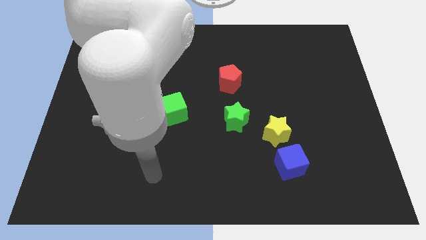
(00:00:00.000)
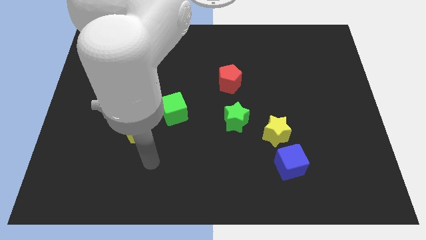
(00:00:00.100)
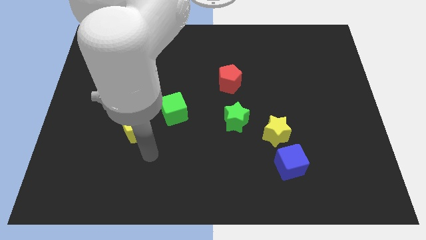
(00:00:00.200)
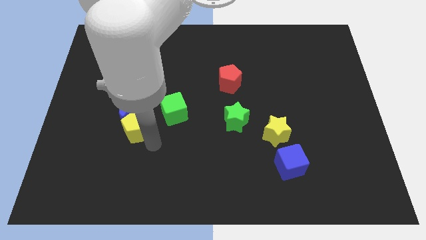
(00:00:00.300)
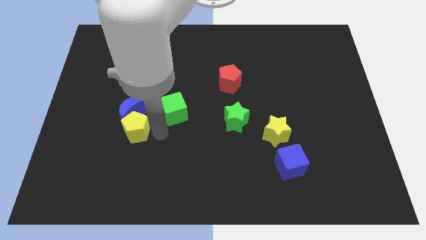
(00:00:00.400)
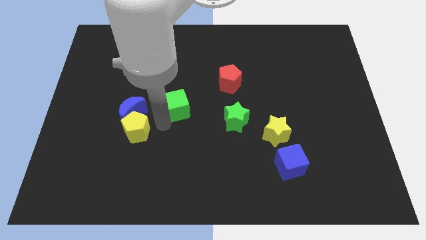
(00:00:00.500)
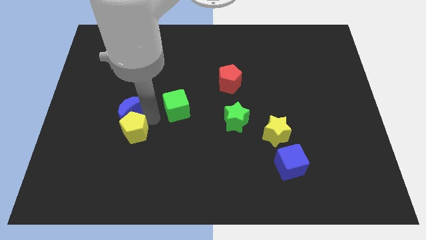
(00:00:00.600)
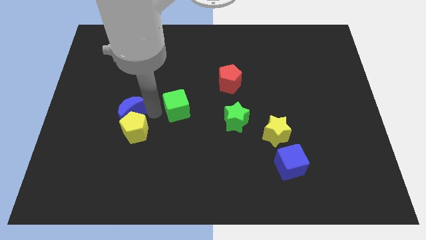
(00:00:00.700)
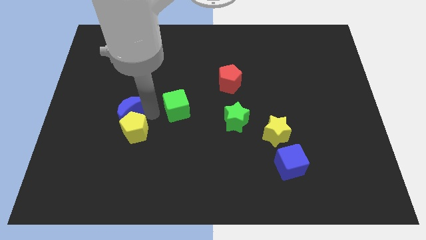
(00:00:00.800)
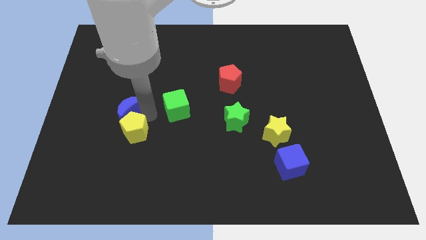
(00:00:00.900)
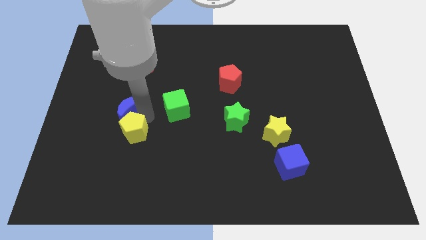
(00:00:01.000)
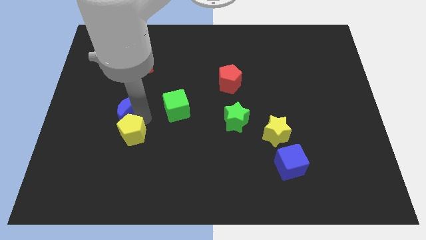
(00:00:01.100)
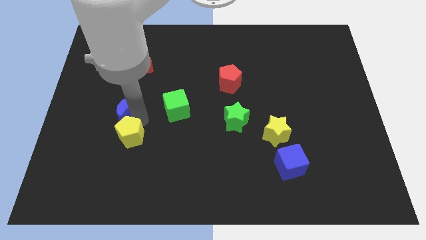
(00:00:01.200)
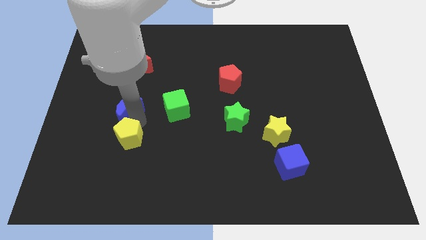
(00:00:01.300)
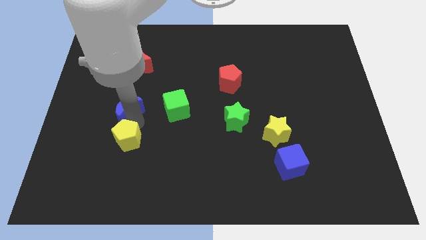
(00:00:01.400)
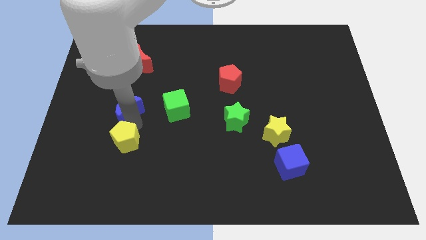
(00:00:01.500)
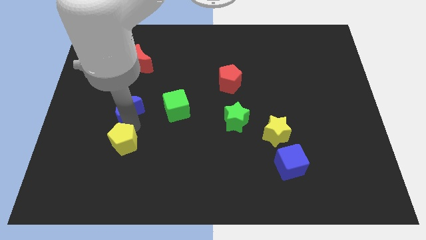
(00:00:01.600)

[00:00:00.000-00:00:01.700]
separate the yellow pentagon from the blue moon and green cube

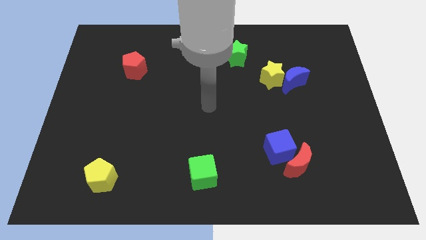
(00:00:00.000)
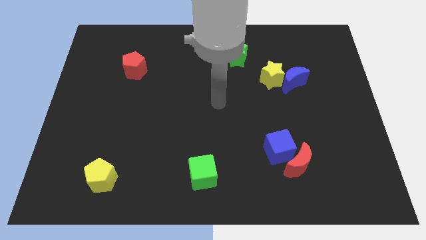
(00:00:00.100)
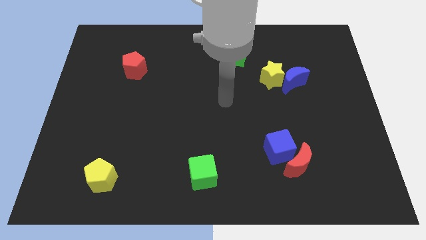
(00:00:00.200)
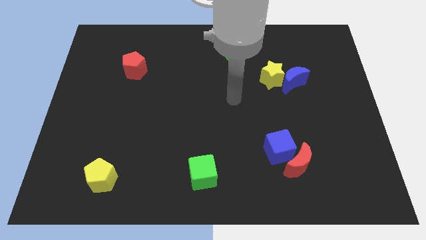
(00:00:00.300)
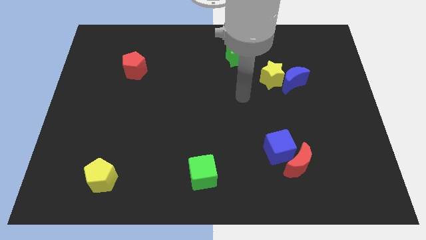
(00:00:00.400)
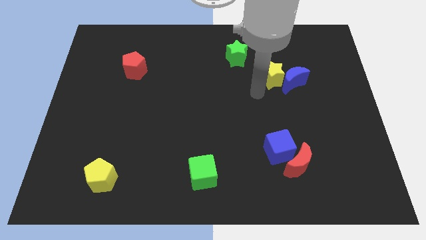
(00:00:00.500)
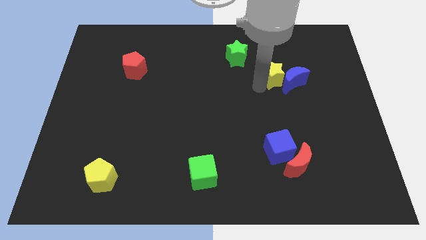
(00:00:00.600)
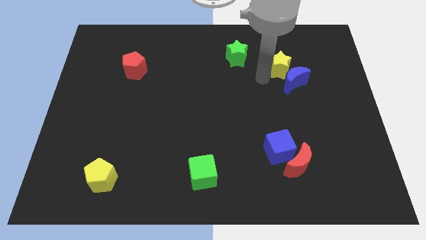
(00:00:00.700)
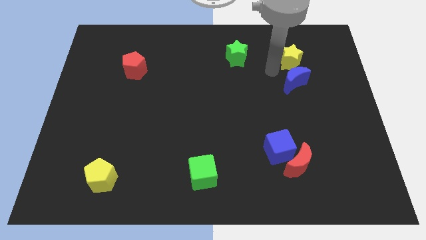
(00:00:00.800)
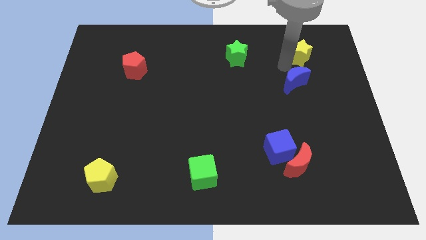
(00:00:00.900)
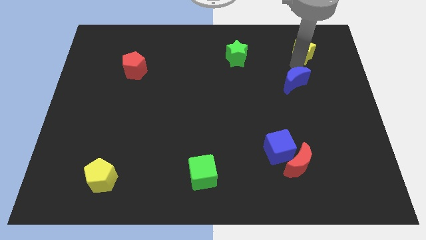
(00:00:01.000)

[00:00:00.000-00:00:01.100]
separate the blue moon from the yellow star

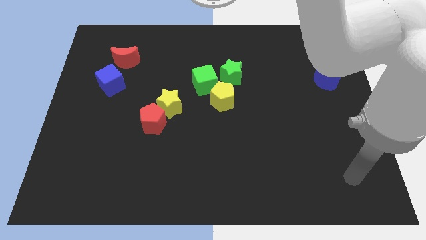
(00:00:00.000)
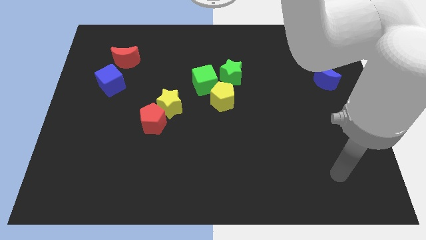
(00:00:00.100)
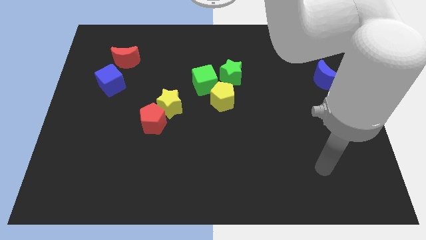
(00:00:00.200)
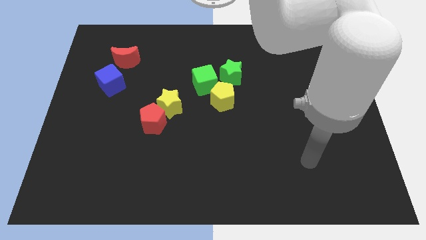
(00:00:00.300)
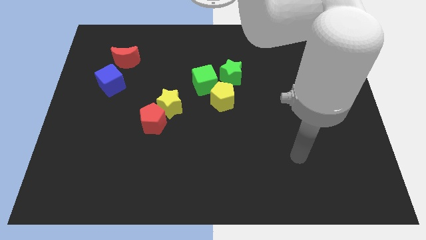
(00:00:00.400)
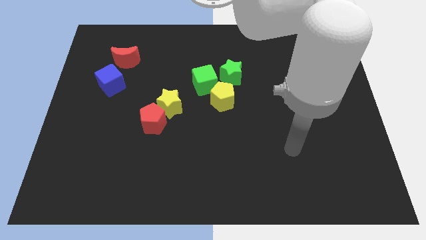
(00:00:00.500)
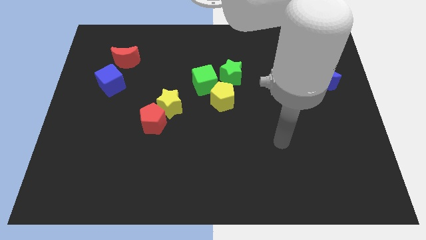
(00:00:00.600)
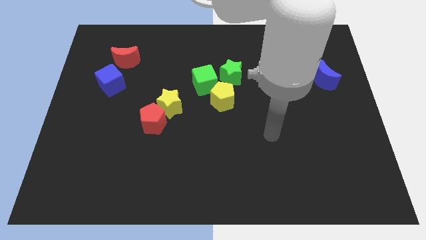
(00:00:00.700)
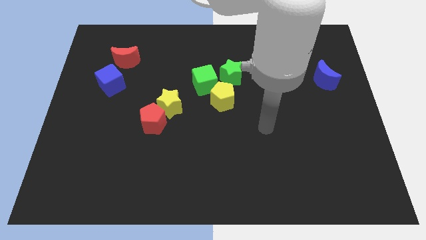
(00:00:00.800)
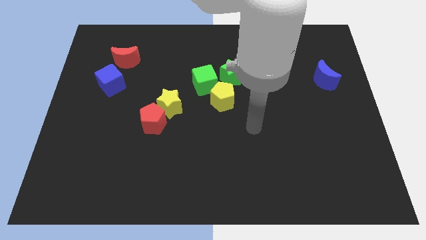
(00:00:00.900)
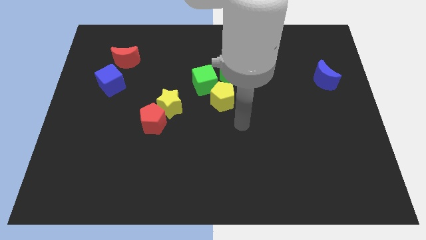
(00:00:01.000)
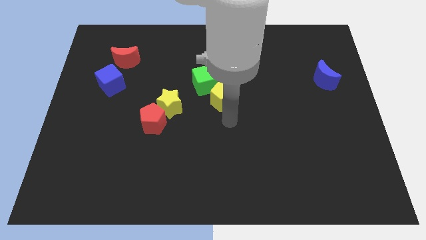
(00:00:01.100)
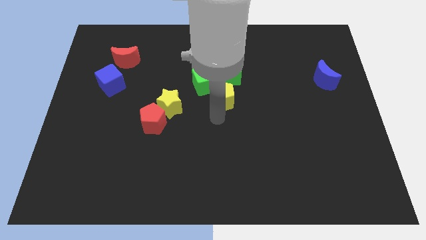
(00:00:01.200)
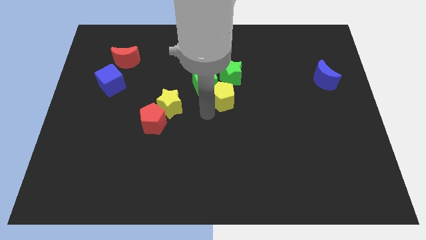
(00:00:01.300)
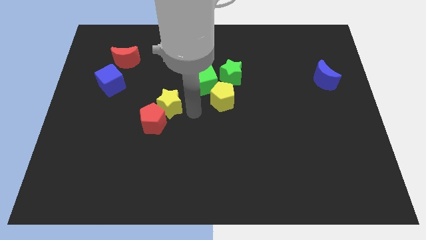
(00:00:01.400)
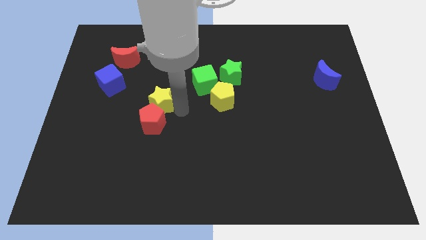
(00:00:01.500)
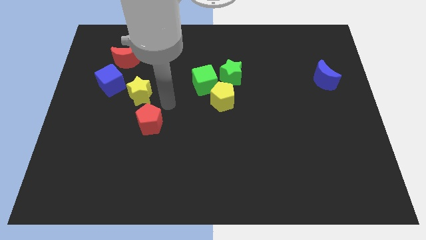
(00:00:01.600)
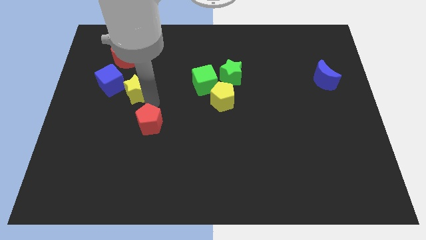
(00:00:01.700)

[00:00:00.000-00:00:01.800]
separate the red pentagon from the yellow star

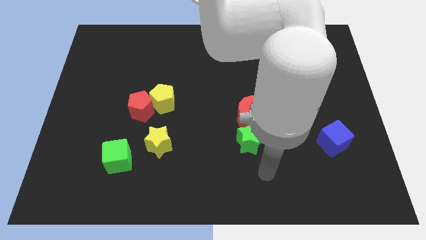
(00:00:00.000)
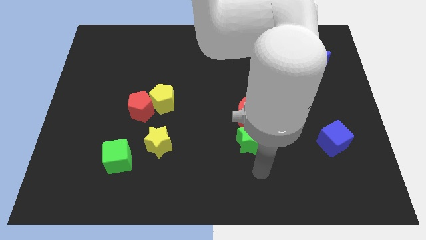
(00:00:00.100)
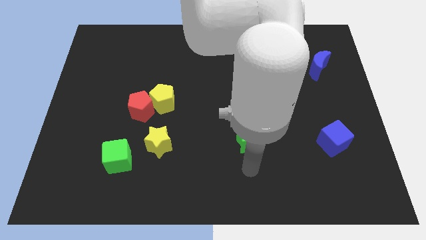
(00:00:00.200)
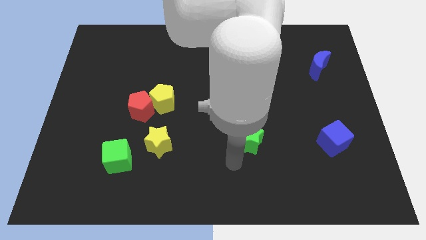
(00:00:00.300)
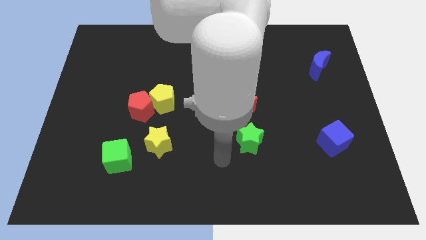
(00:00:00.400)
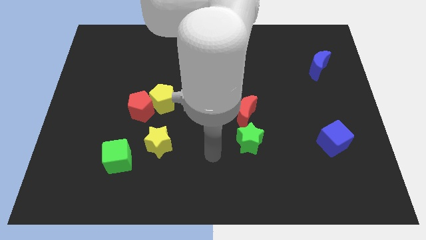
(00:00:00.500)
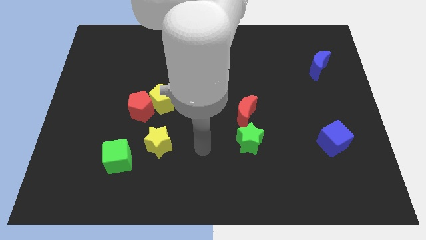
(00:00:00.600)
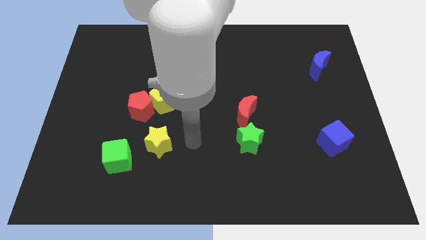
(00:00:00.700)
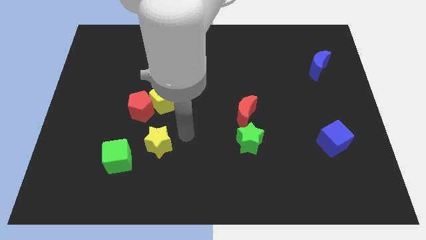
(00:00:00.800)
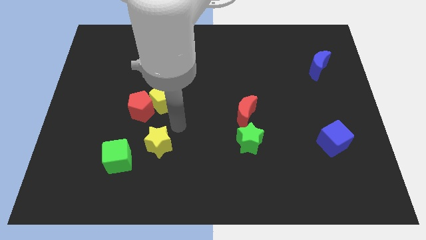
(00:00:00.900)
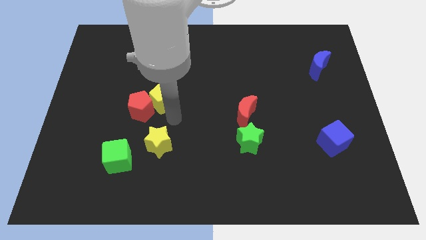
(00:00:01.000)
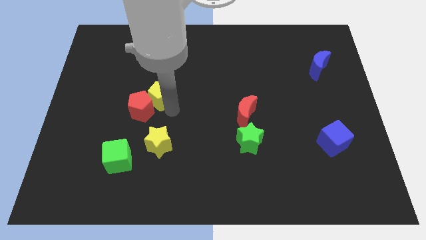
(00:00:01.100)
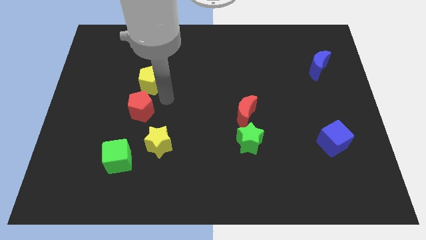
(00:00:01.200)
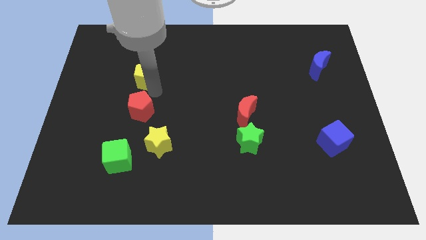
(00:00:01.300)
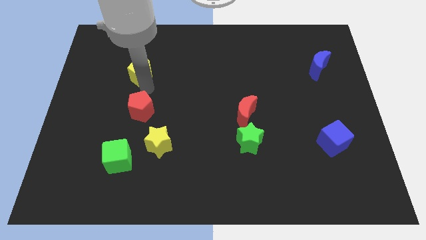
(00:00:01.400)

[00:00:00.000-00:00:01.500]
move the red pentagon away from the yellow pentagon

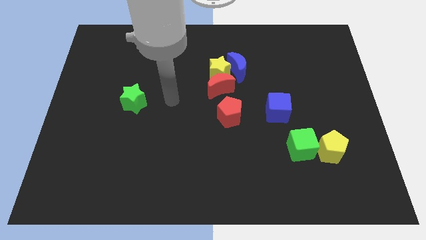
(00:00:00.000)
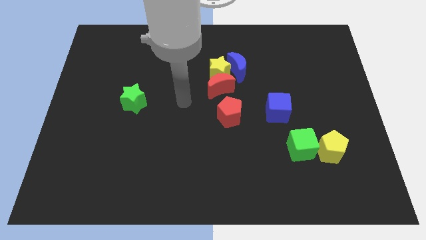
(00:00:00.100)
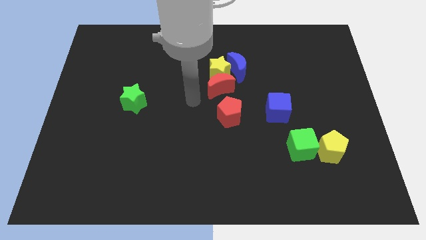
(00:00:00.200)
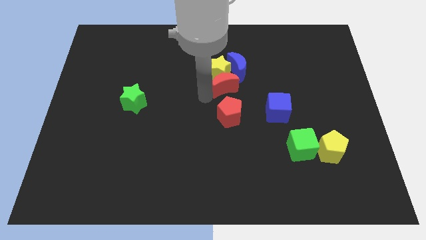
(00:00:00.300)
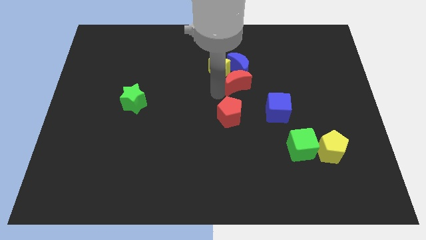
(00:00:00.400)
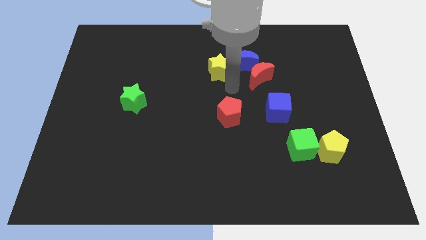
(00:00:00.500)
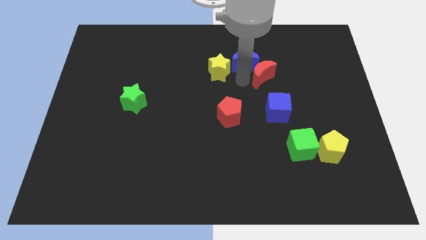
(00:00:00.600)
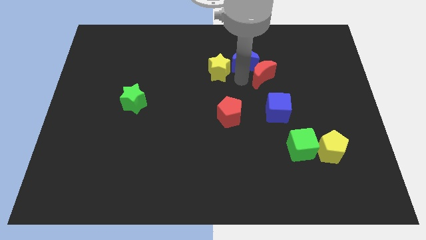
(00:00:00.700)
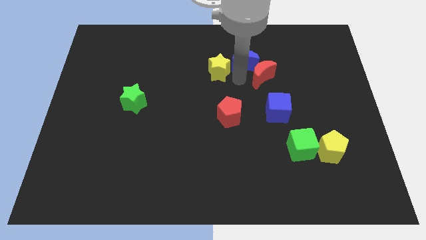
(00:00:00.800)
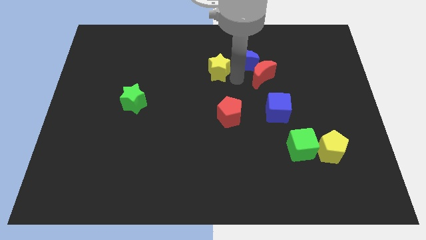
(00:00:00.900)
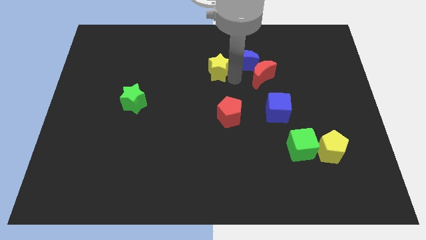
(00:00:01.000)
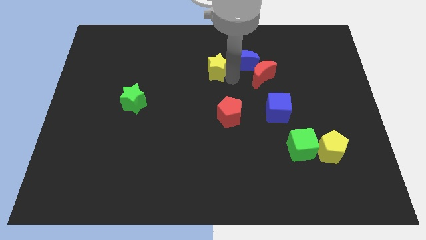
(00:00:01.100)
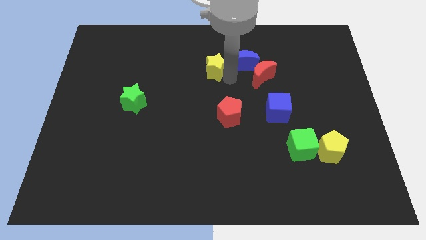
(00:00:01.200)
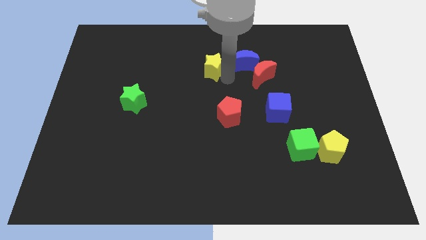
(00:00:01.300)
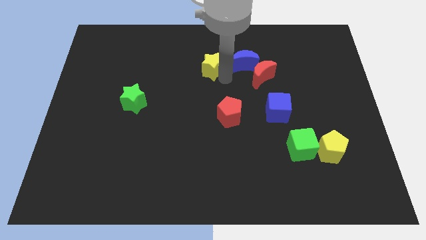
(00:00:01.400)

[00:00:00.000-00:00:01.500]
move the yellow star away from the blue moon and red moon

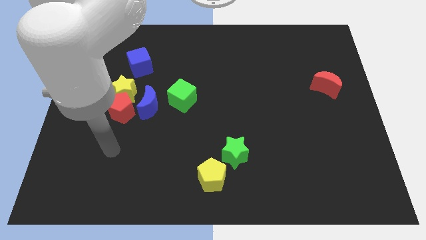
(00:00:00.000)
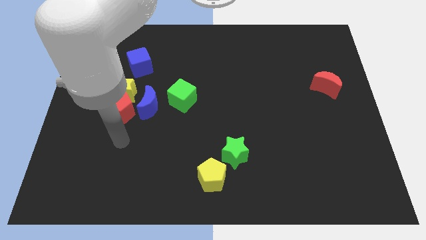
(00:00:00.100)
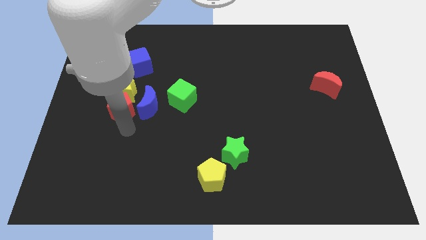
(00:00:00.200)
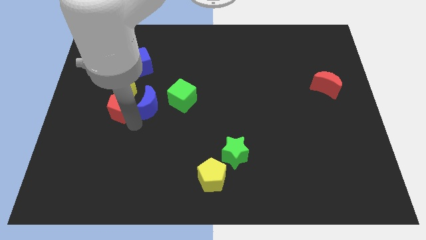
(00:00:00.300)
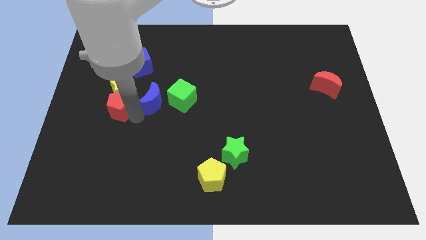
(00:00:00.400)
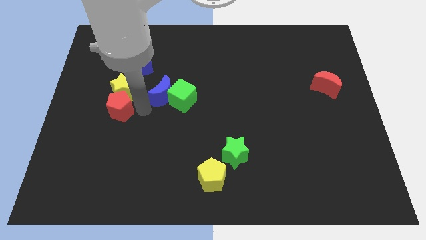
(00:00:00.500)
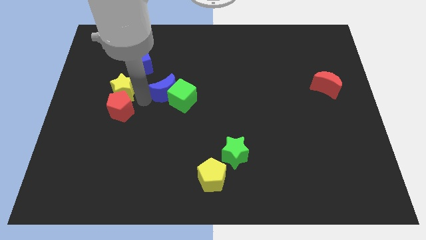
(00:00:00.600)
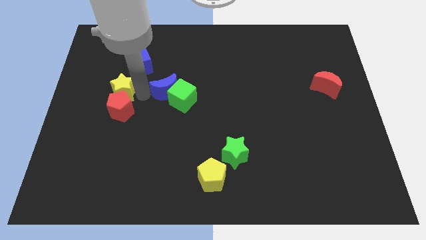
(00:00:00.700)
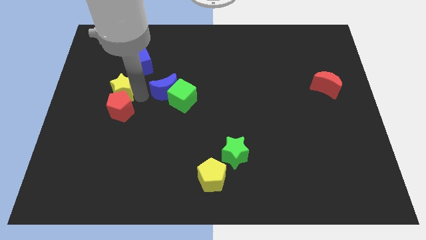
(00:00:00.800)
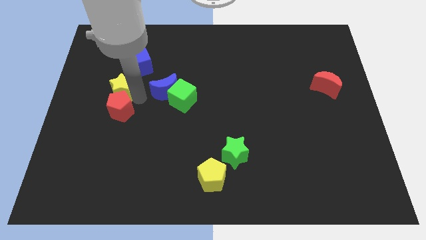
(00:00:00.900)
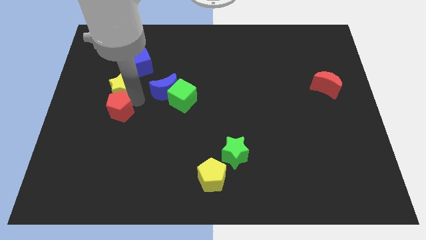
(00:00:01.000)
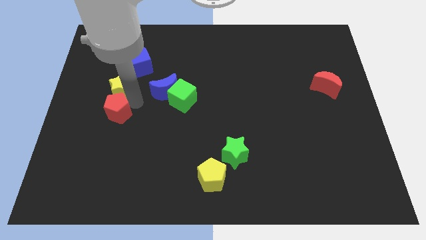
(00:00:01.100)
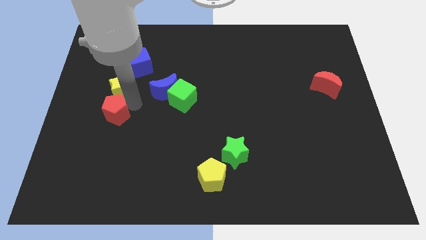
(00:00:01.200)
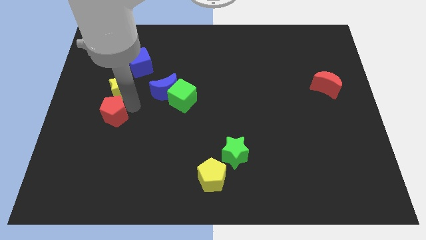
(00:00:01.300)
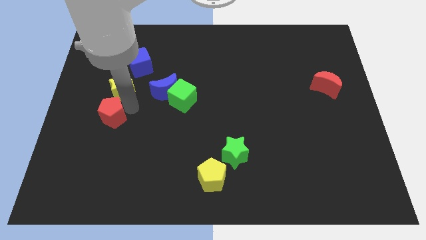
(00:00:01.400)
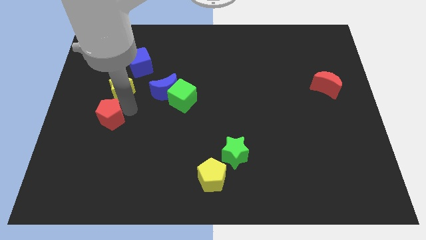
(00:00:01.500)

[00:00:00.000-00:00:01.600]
move the red pentagon away from the yellow star and blue moon
